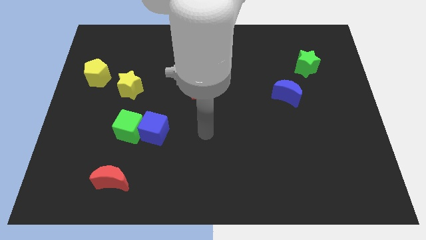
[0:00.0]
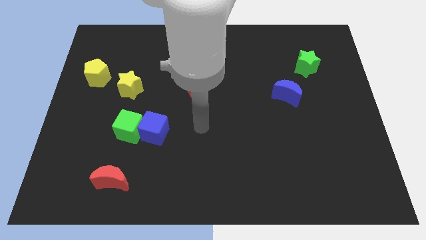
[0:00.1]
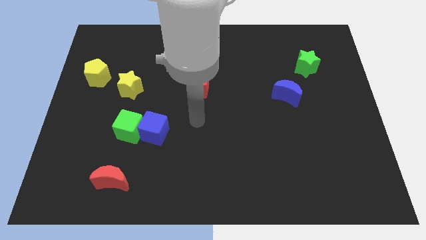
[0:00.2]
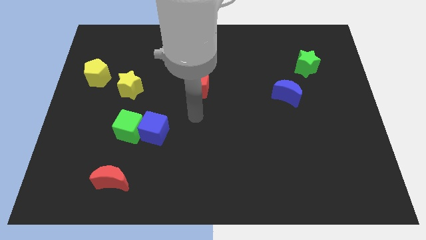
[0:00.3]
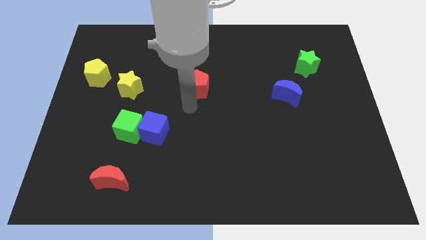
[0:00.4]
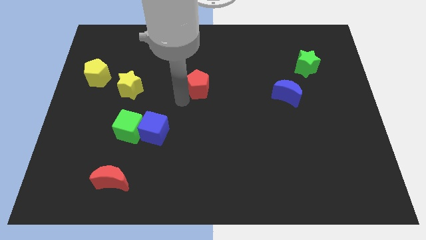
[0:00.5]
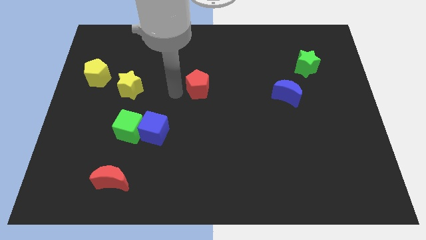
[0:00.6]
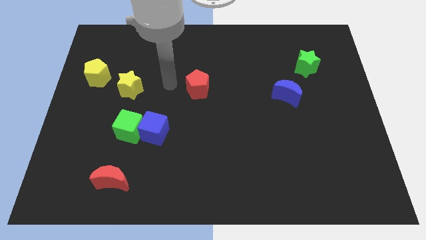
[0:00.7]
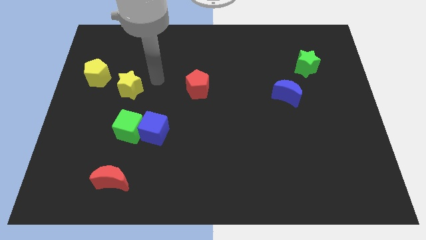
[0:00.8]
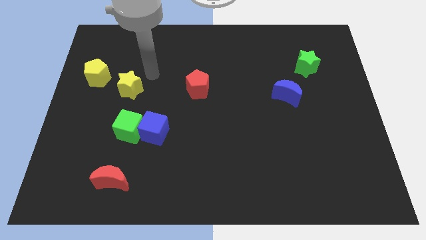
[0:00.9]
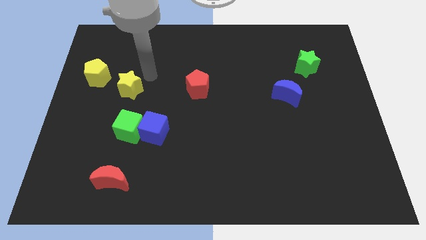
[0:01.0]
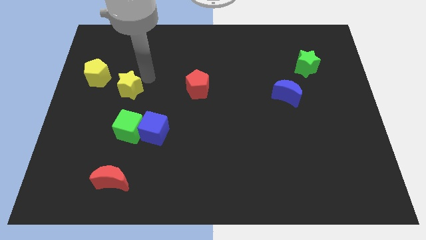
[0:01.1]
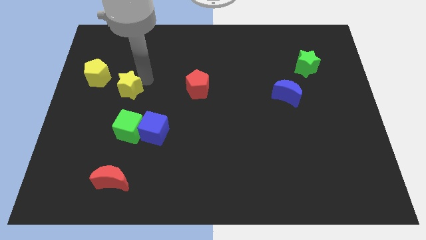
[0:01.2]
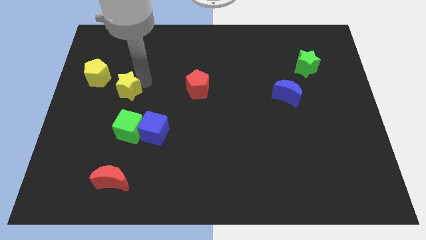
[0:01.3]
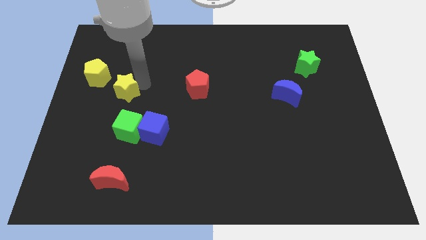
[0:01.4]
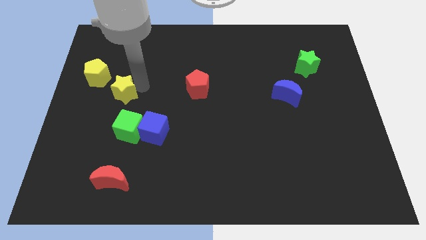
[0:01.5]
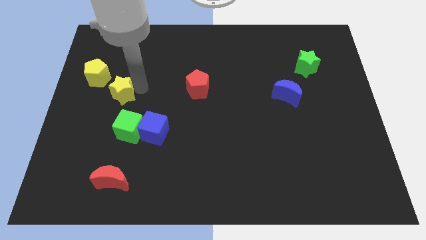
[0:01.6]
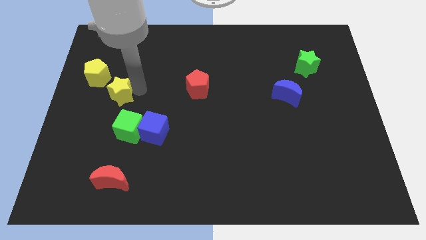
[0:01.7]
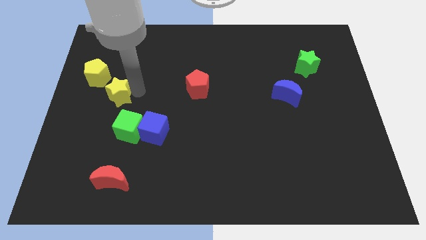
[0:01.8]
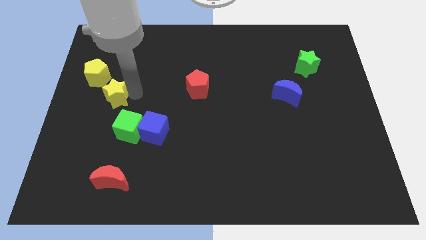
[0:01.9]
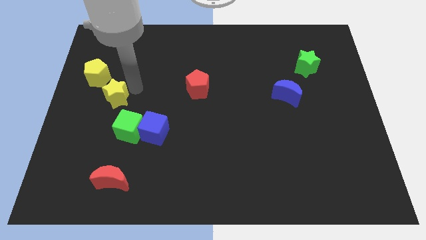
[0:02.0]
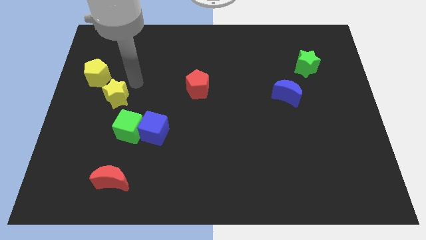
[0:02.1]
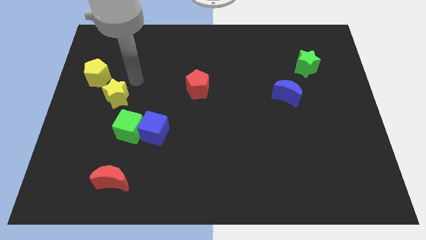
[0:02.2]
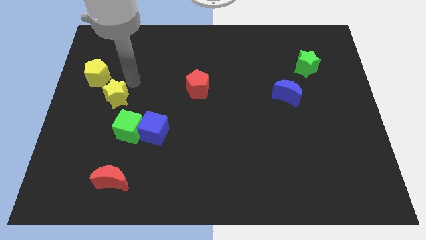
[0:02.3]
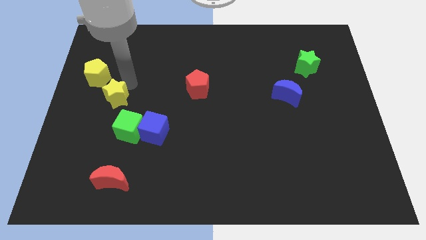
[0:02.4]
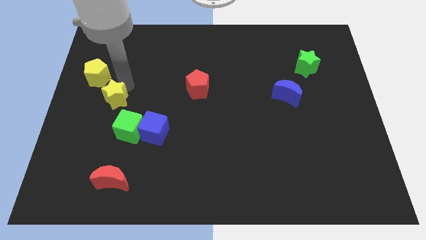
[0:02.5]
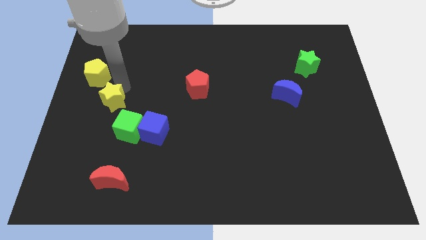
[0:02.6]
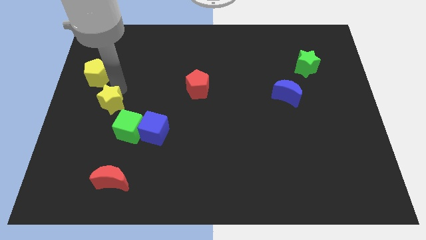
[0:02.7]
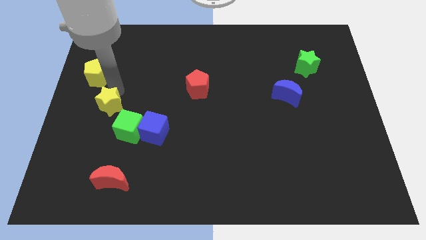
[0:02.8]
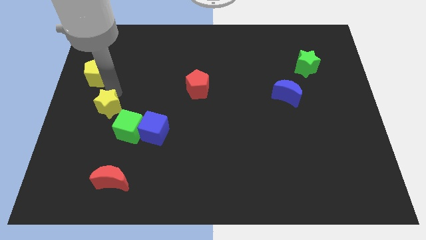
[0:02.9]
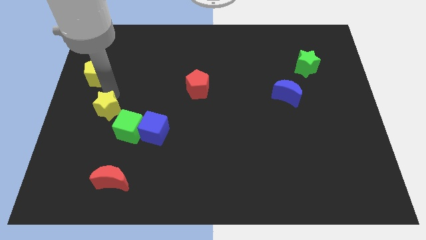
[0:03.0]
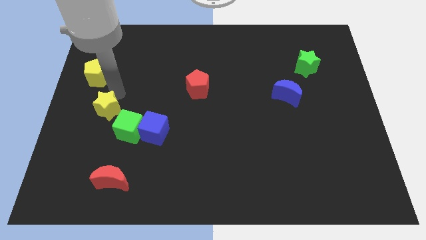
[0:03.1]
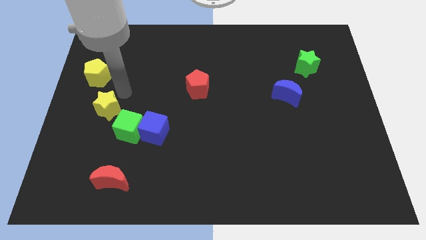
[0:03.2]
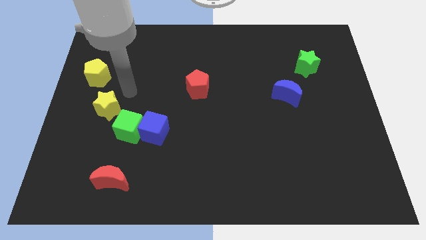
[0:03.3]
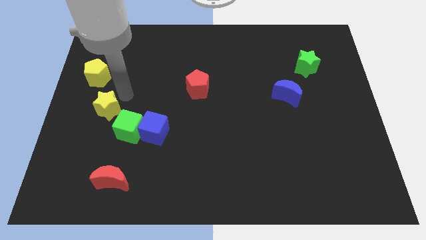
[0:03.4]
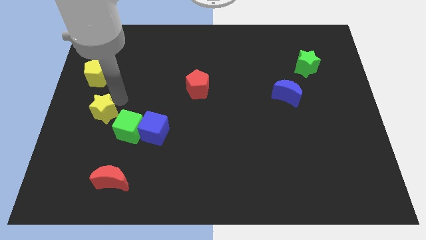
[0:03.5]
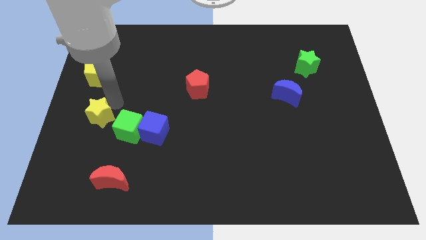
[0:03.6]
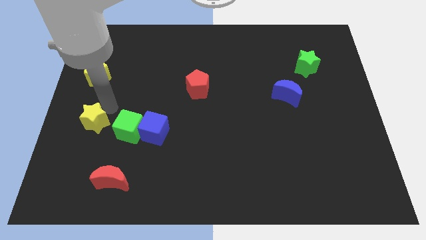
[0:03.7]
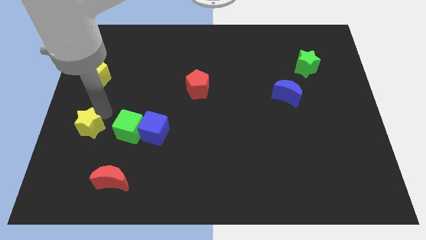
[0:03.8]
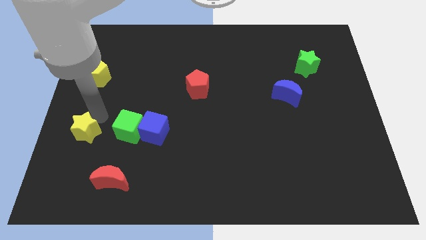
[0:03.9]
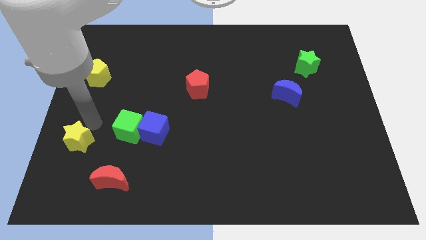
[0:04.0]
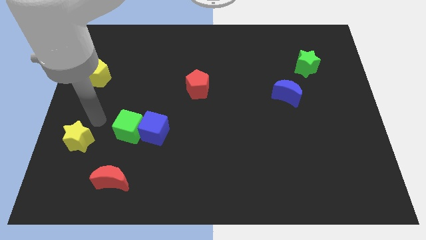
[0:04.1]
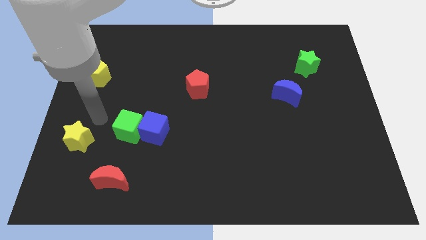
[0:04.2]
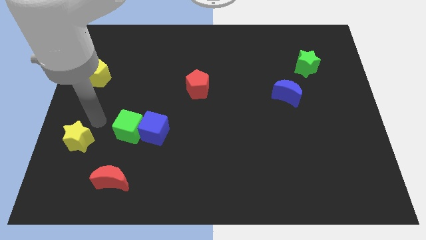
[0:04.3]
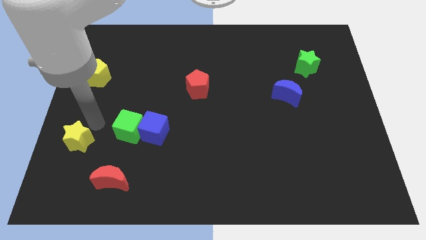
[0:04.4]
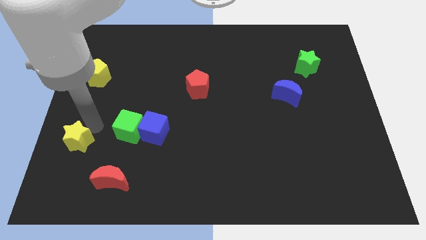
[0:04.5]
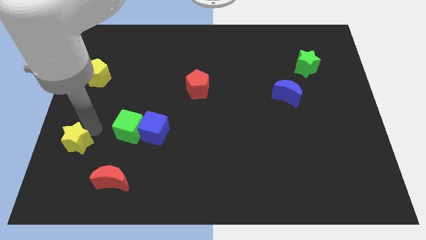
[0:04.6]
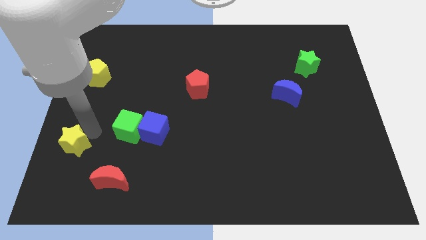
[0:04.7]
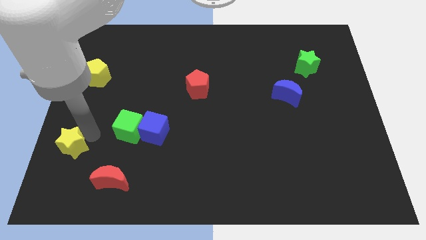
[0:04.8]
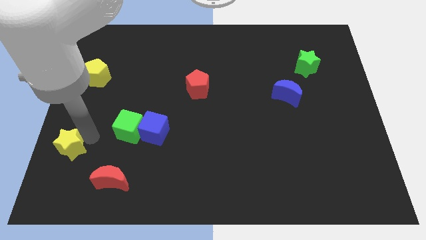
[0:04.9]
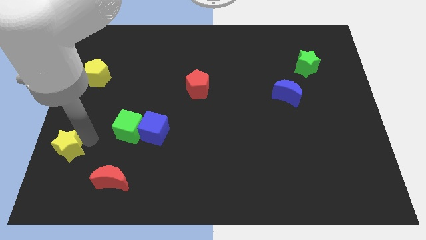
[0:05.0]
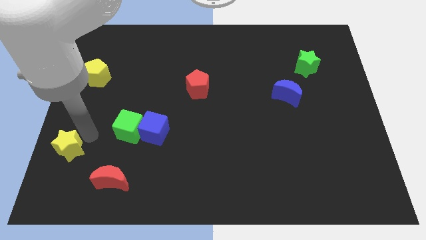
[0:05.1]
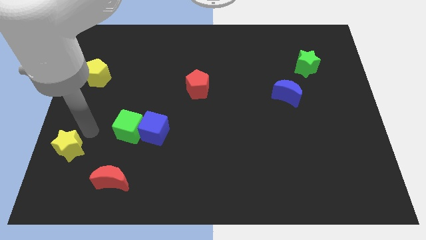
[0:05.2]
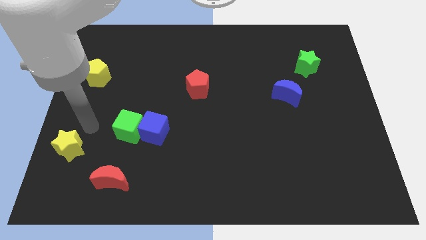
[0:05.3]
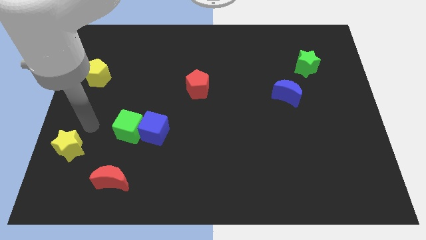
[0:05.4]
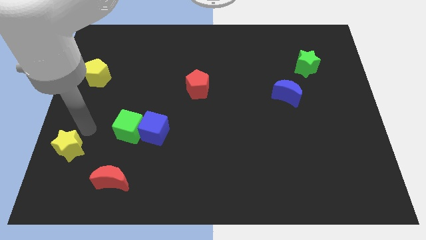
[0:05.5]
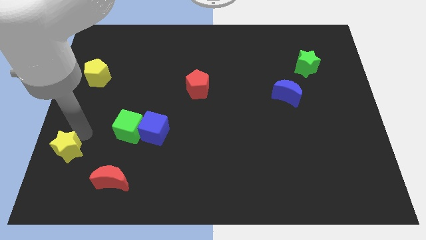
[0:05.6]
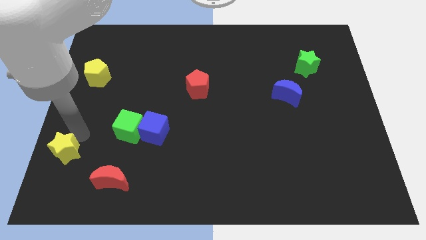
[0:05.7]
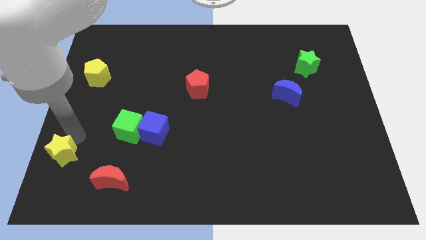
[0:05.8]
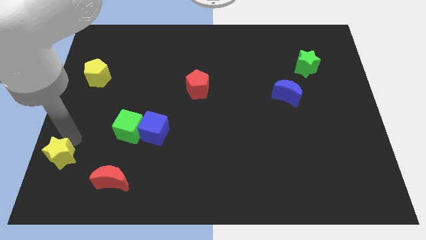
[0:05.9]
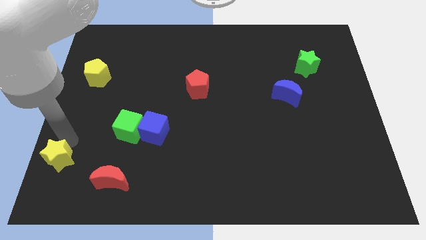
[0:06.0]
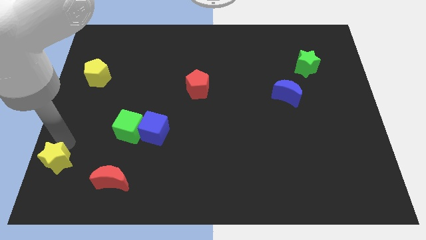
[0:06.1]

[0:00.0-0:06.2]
move the yellow star to the bottom left

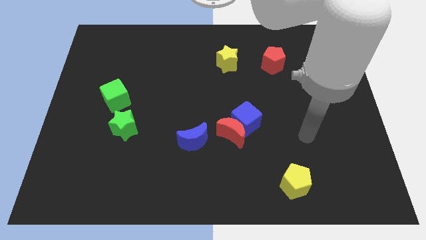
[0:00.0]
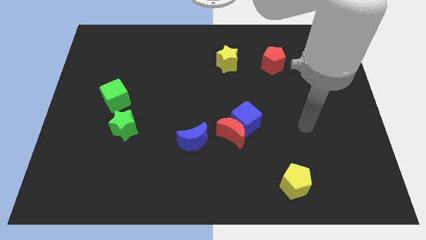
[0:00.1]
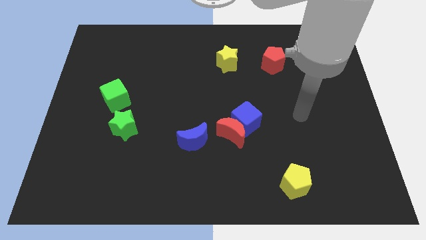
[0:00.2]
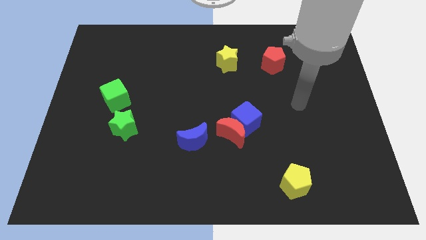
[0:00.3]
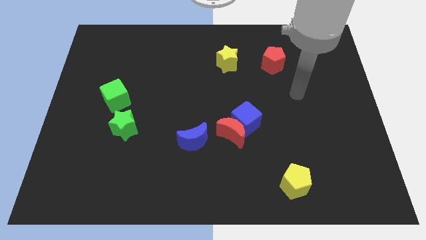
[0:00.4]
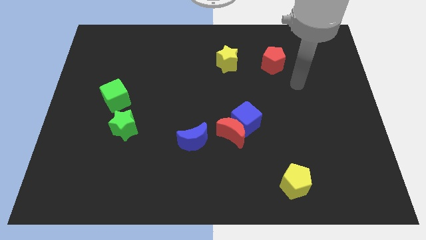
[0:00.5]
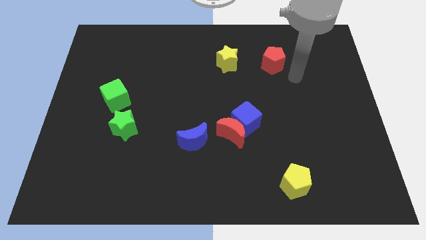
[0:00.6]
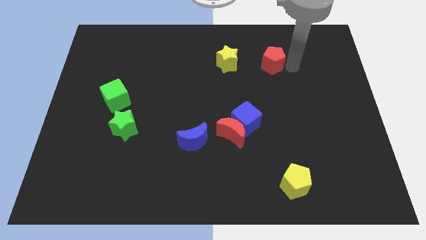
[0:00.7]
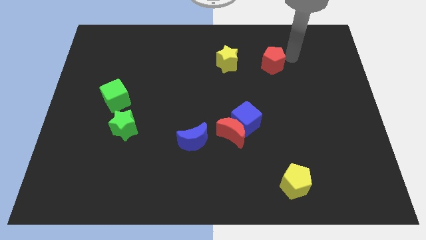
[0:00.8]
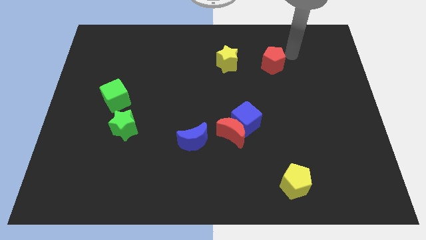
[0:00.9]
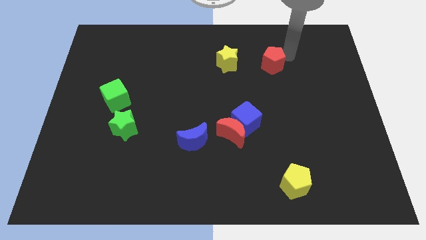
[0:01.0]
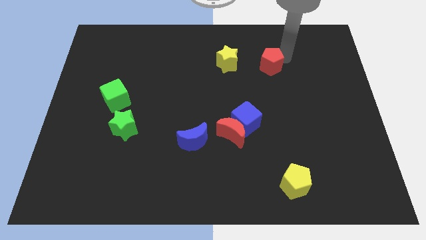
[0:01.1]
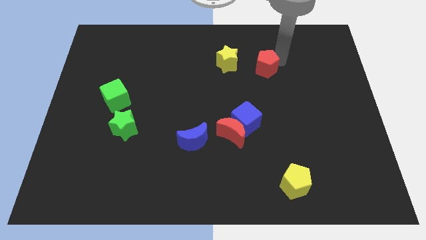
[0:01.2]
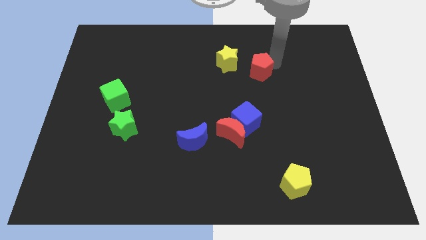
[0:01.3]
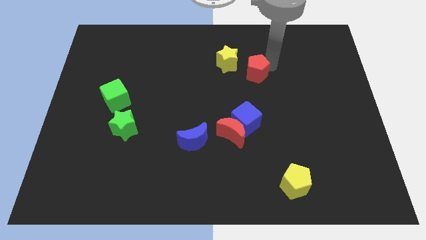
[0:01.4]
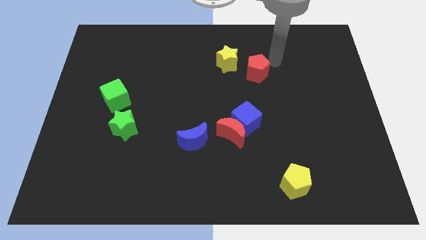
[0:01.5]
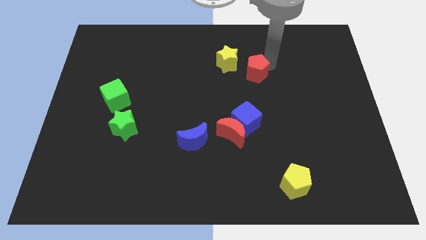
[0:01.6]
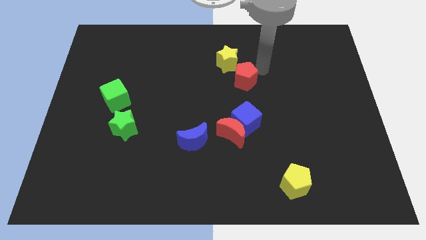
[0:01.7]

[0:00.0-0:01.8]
move the red pentagon to the middle
